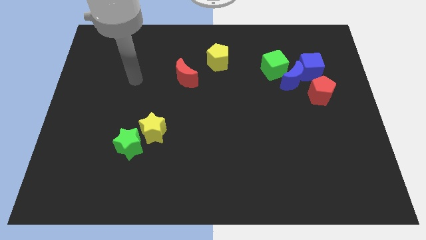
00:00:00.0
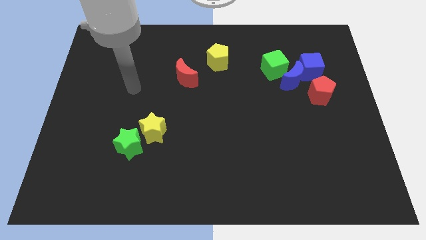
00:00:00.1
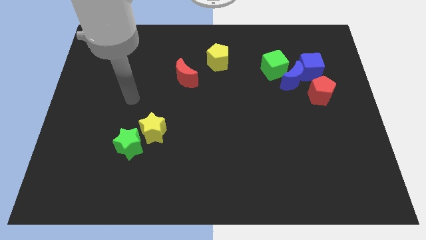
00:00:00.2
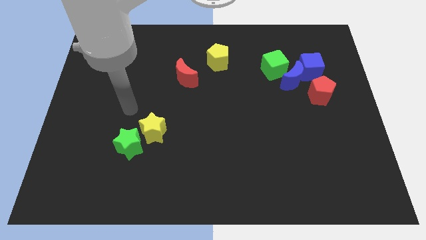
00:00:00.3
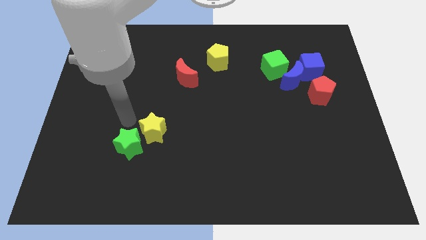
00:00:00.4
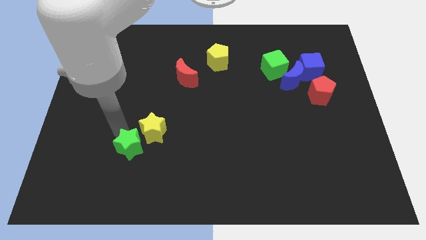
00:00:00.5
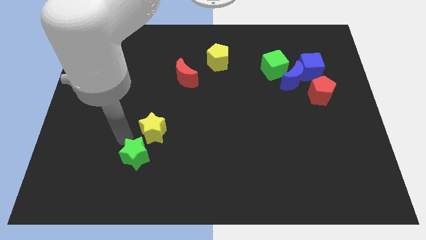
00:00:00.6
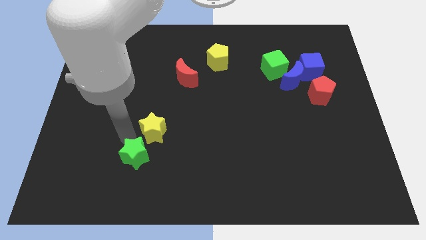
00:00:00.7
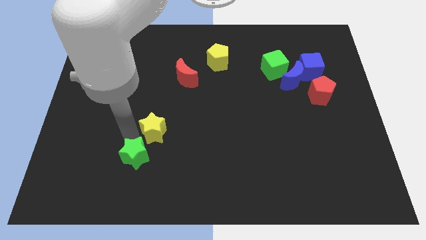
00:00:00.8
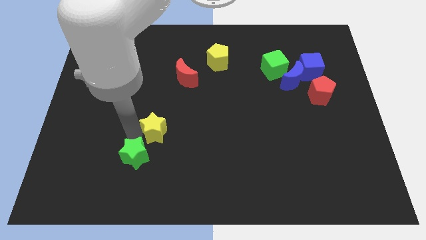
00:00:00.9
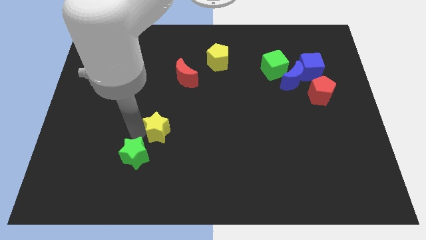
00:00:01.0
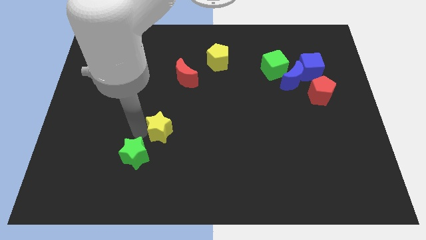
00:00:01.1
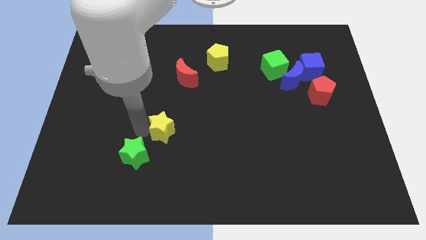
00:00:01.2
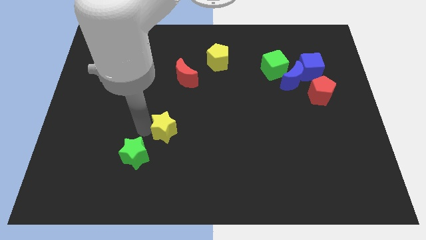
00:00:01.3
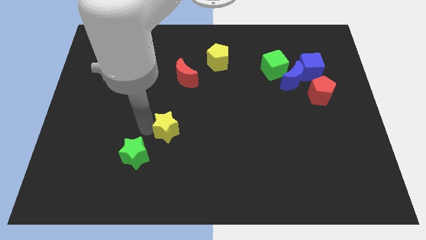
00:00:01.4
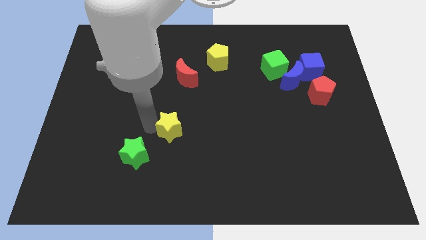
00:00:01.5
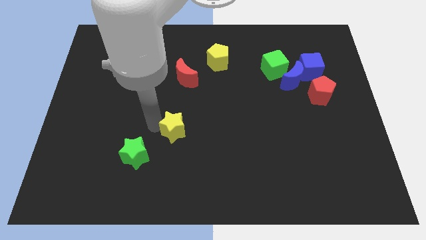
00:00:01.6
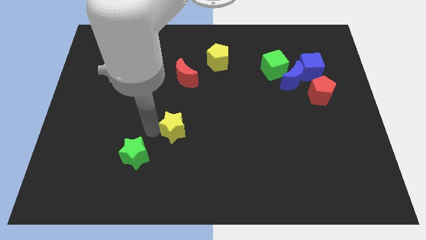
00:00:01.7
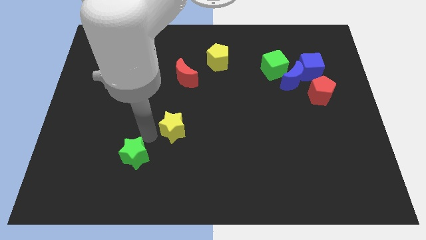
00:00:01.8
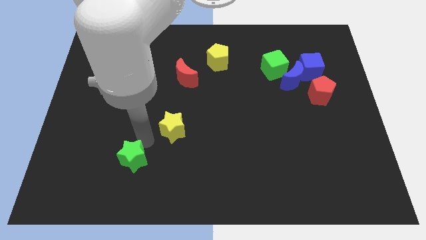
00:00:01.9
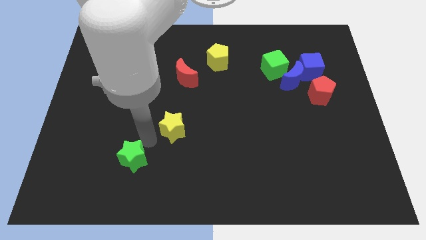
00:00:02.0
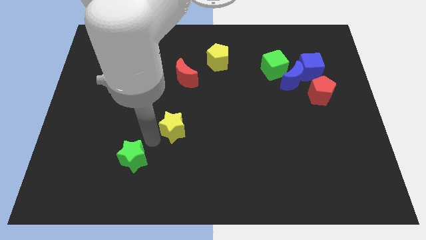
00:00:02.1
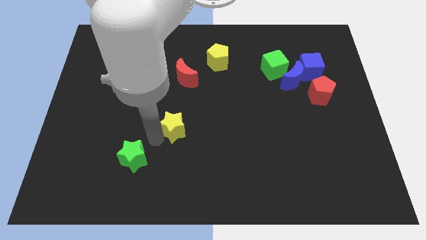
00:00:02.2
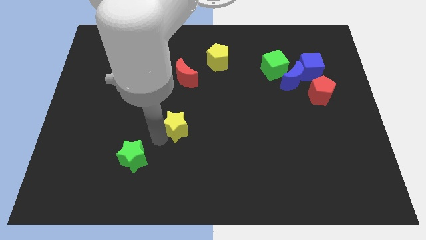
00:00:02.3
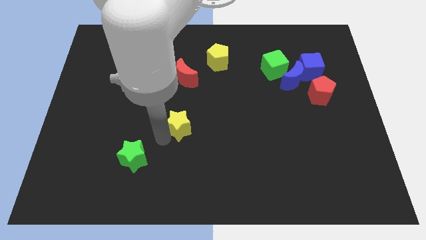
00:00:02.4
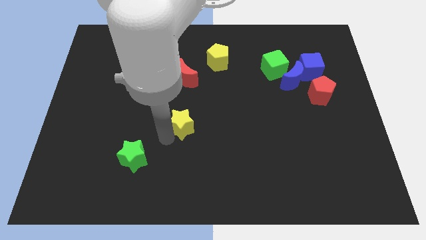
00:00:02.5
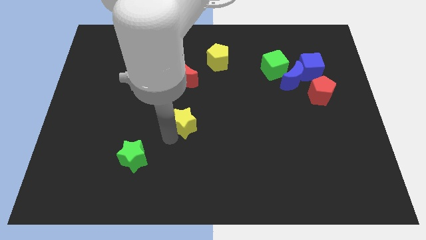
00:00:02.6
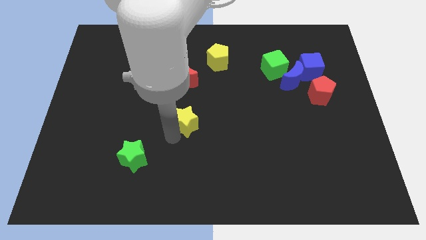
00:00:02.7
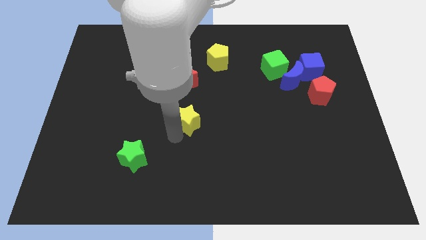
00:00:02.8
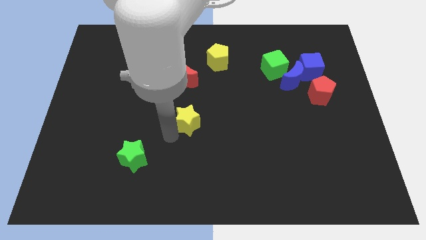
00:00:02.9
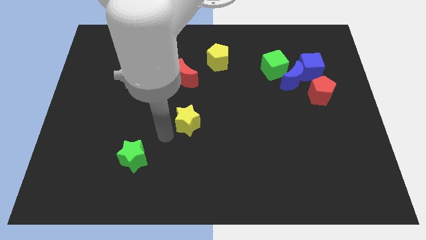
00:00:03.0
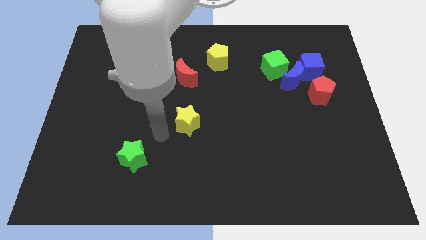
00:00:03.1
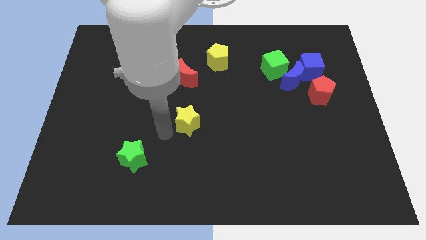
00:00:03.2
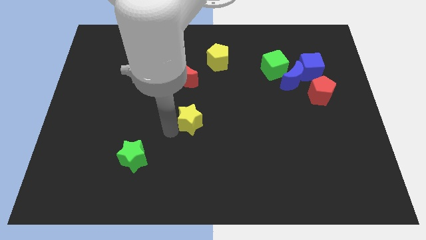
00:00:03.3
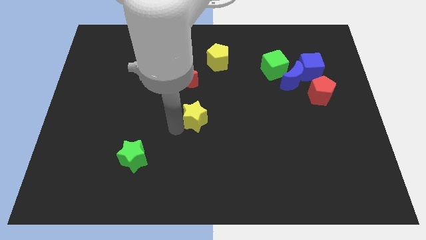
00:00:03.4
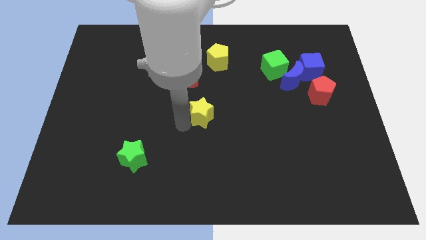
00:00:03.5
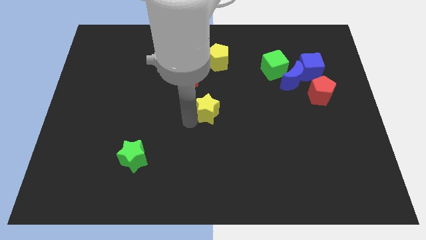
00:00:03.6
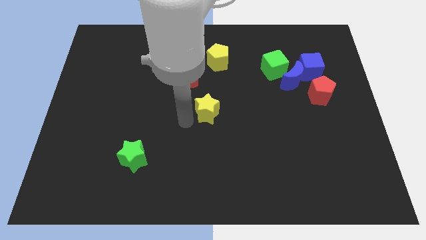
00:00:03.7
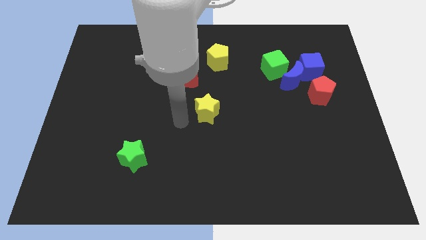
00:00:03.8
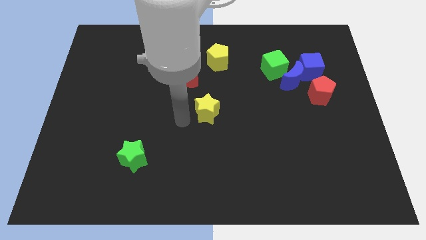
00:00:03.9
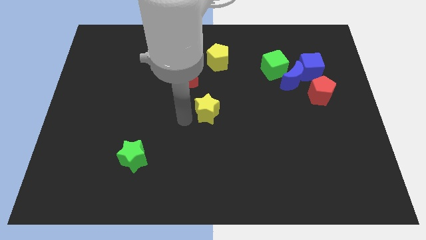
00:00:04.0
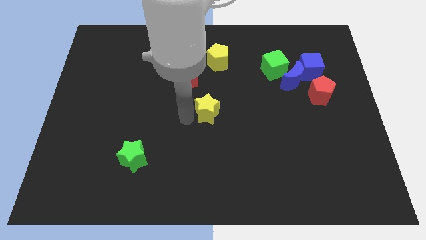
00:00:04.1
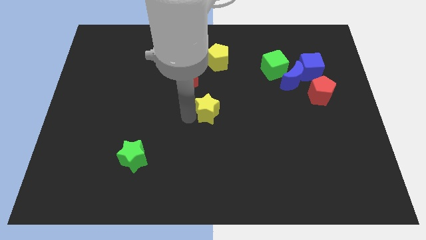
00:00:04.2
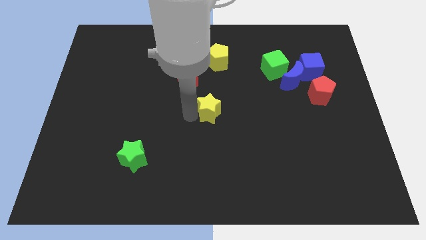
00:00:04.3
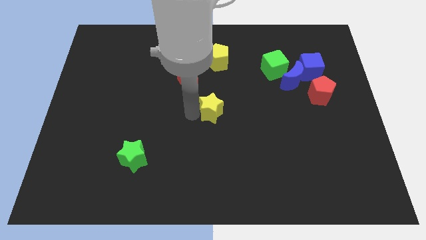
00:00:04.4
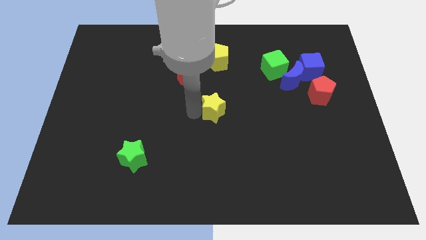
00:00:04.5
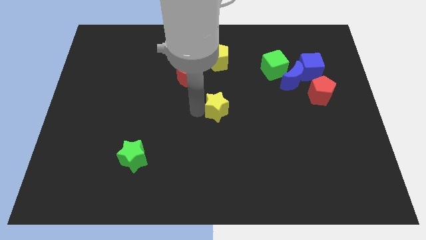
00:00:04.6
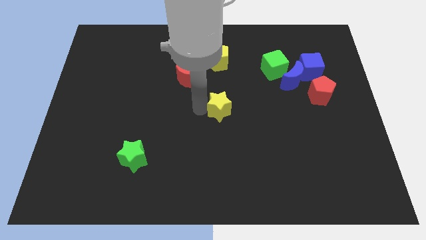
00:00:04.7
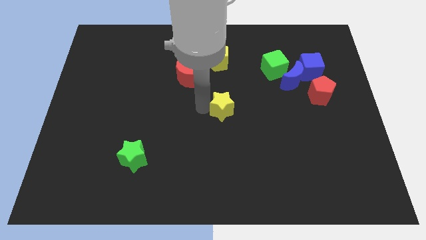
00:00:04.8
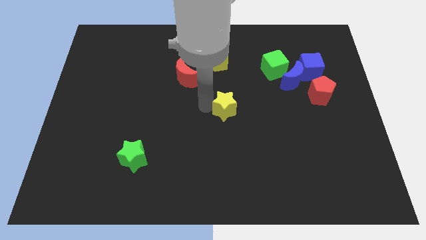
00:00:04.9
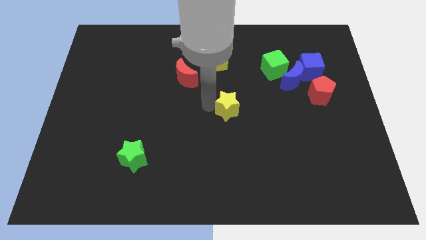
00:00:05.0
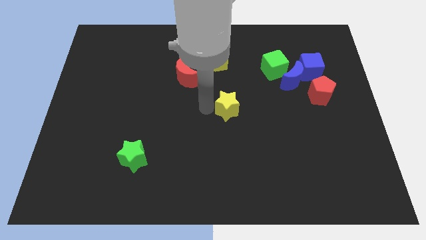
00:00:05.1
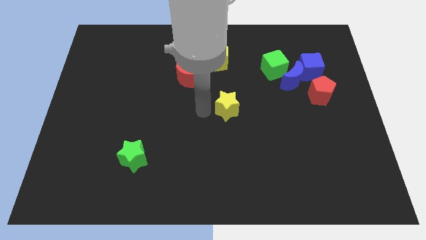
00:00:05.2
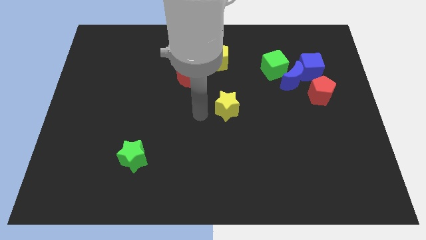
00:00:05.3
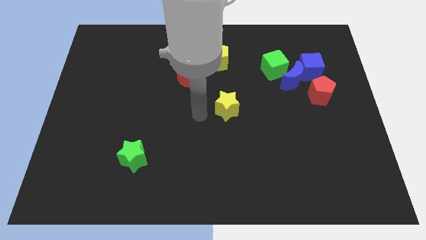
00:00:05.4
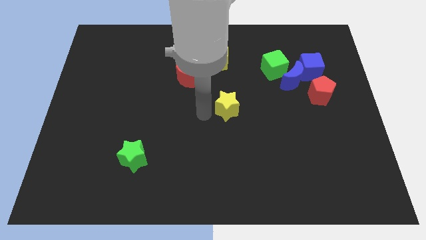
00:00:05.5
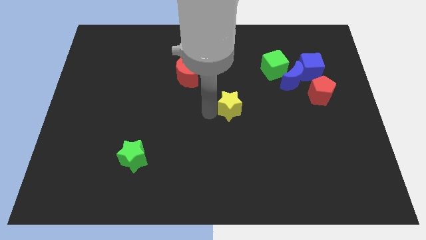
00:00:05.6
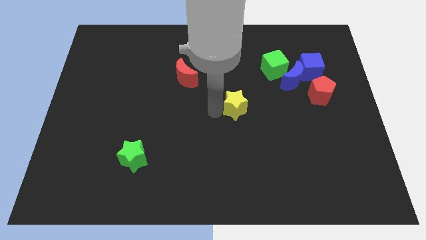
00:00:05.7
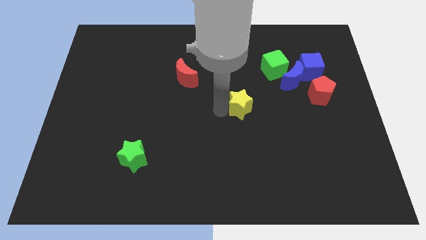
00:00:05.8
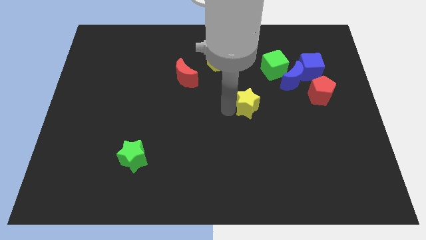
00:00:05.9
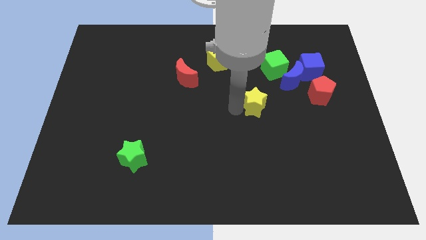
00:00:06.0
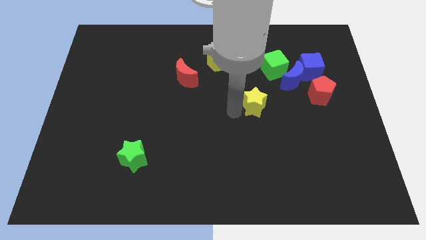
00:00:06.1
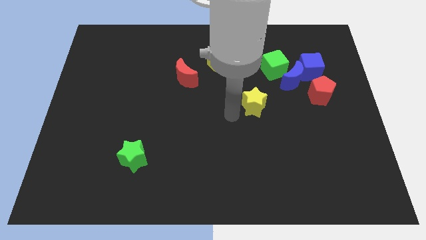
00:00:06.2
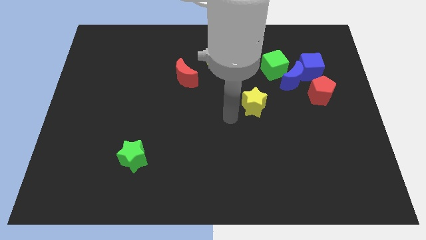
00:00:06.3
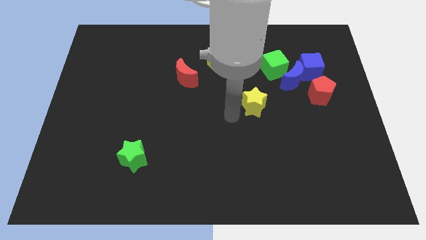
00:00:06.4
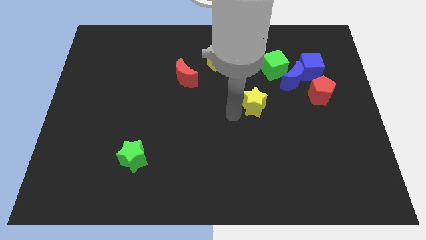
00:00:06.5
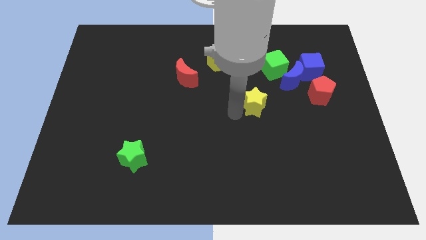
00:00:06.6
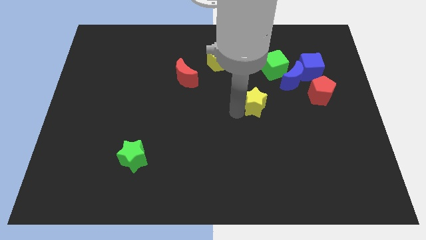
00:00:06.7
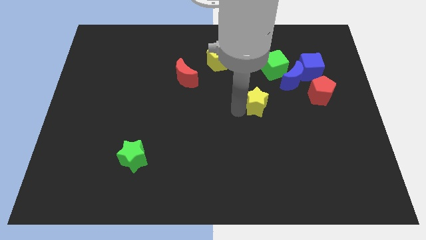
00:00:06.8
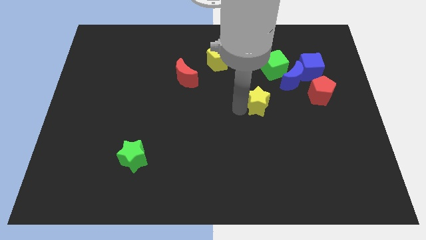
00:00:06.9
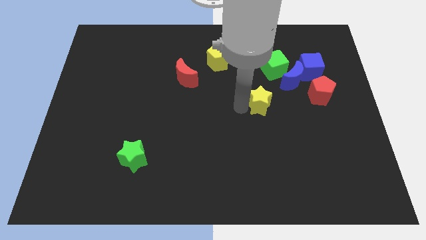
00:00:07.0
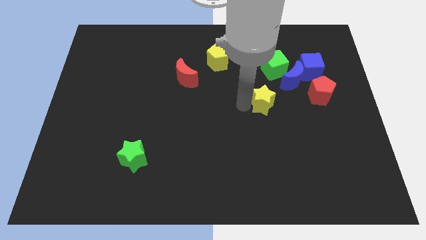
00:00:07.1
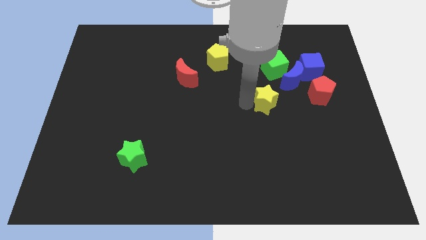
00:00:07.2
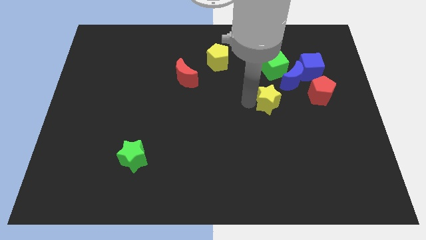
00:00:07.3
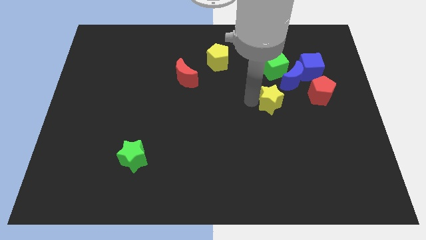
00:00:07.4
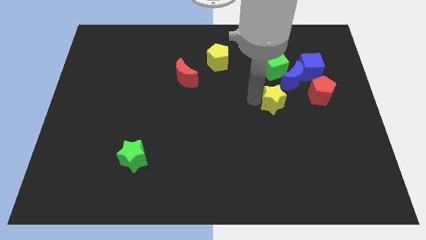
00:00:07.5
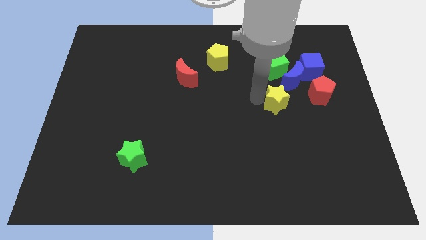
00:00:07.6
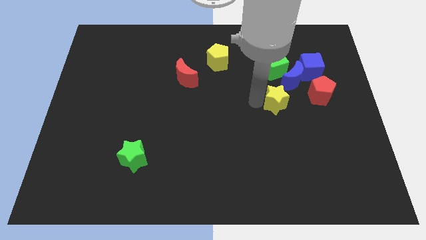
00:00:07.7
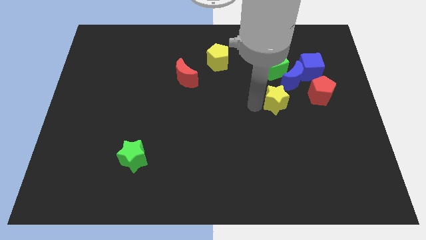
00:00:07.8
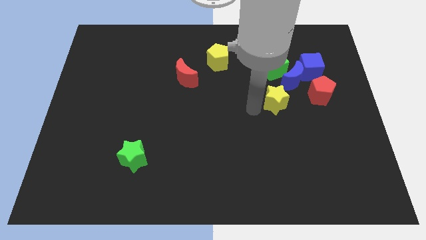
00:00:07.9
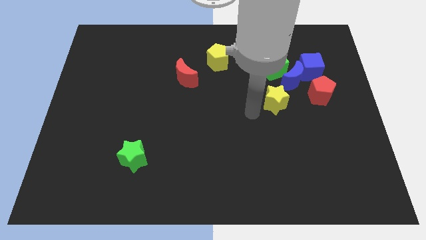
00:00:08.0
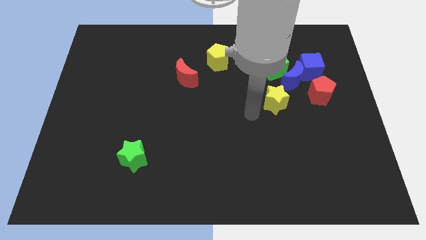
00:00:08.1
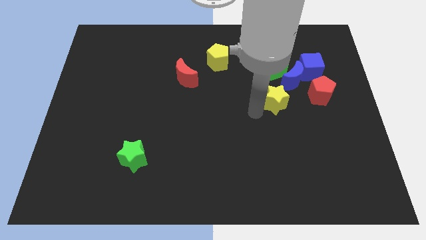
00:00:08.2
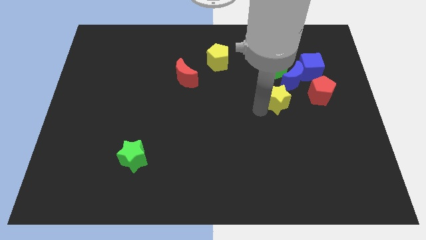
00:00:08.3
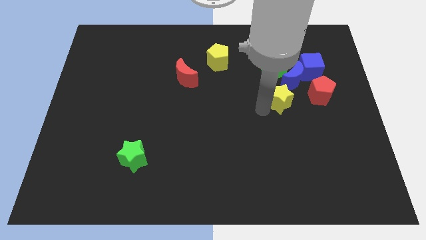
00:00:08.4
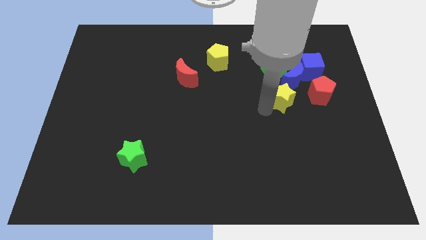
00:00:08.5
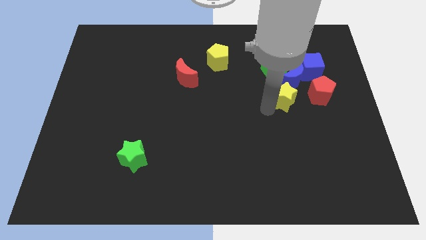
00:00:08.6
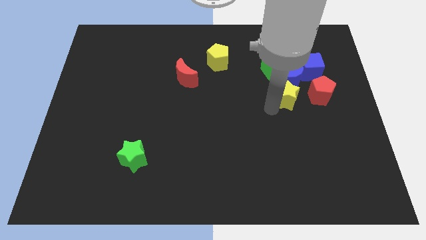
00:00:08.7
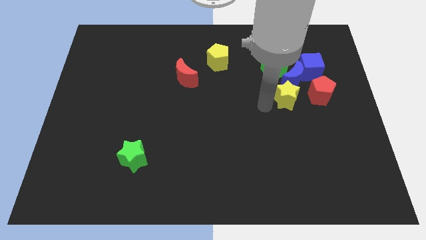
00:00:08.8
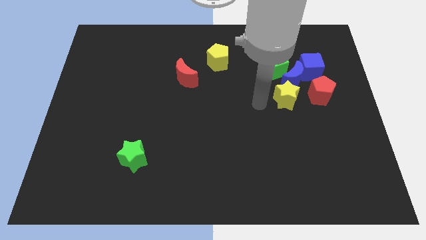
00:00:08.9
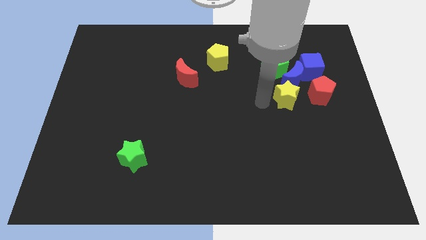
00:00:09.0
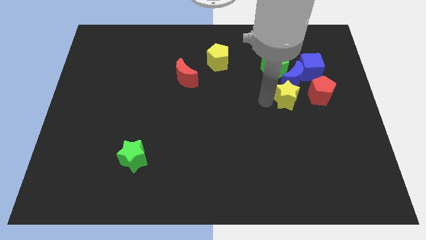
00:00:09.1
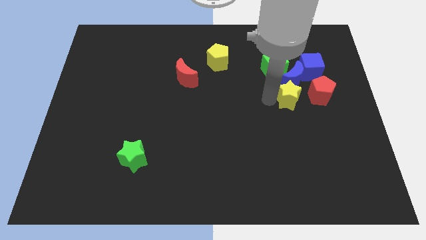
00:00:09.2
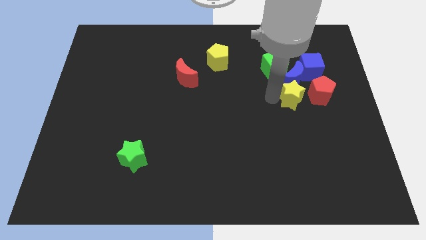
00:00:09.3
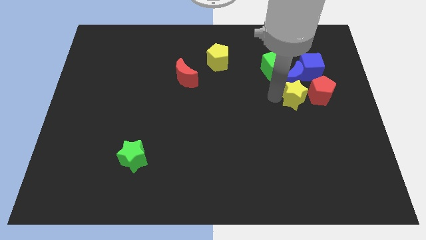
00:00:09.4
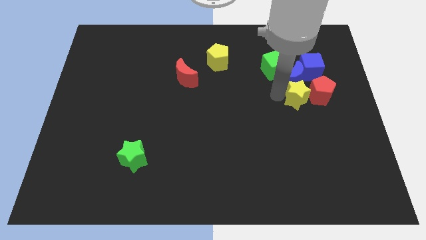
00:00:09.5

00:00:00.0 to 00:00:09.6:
slide the yellow star close to the red pentagon
